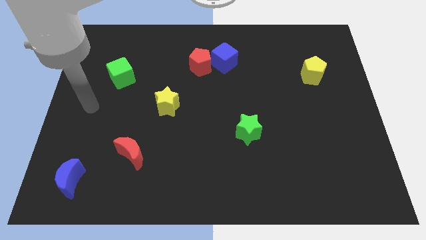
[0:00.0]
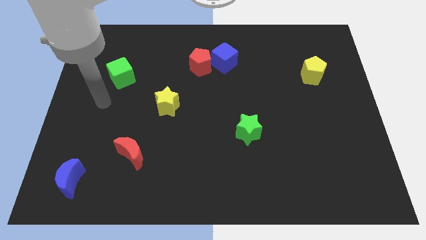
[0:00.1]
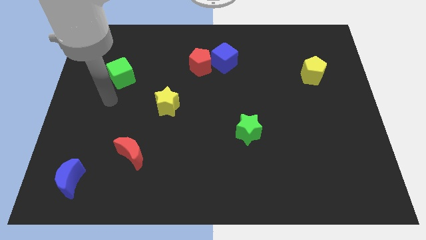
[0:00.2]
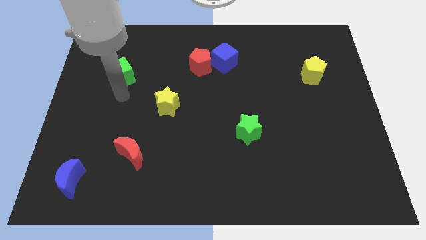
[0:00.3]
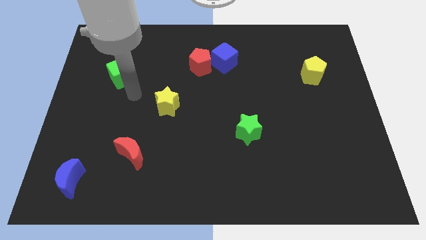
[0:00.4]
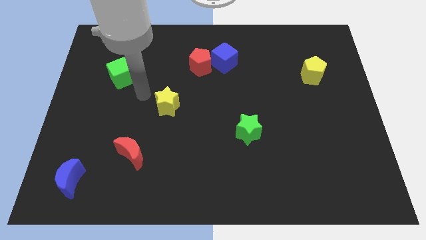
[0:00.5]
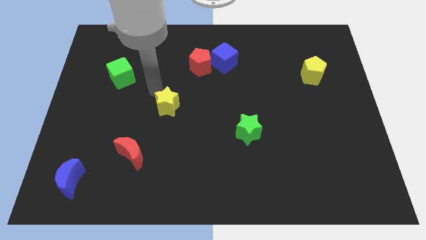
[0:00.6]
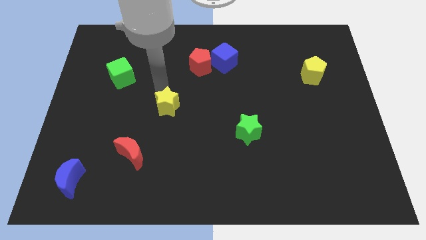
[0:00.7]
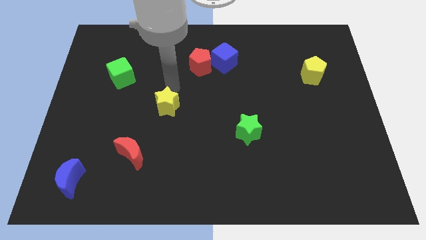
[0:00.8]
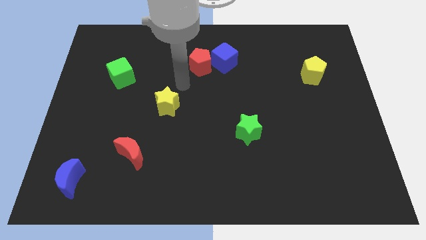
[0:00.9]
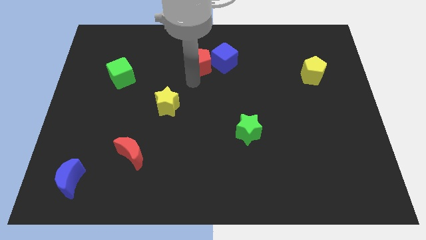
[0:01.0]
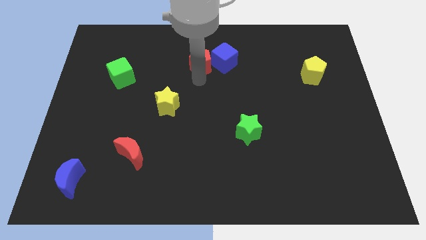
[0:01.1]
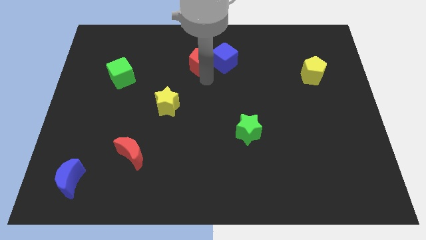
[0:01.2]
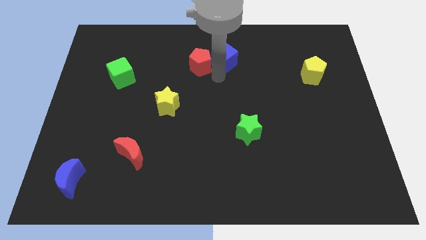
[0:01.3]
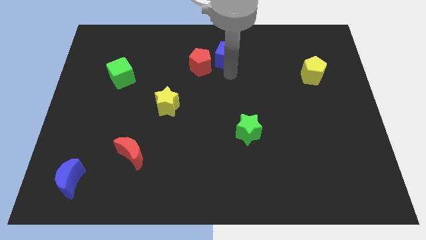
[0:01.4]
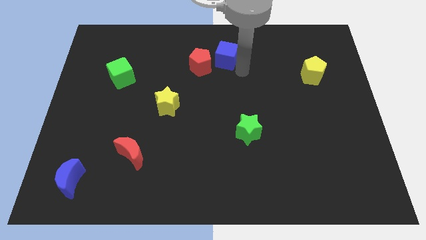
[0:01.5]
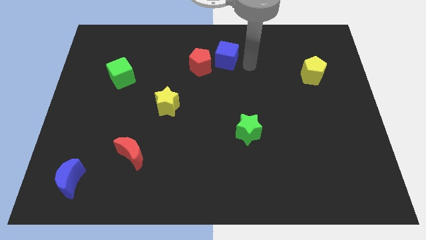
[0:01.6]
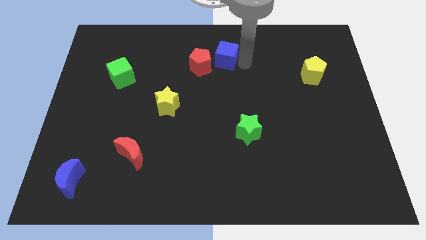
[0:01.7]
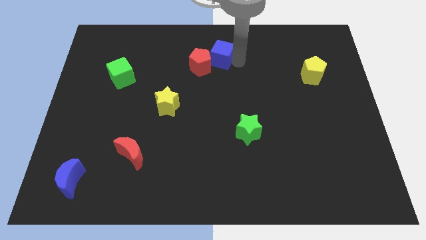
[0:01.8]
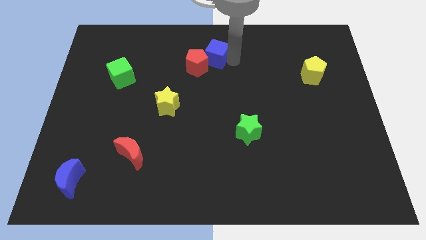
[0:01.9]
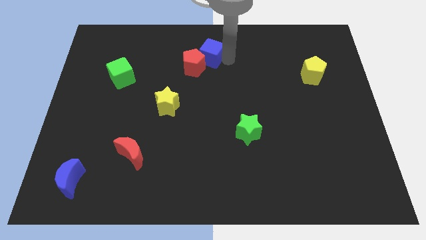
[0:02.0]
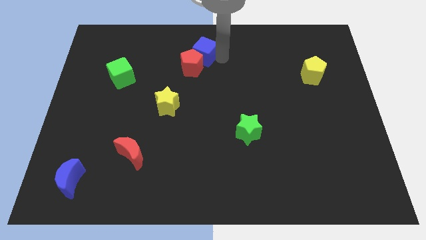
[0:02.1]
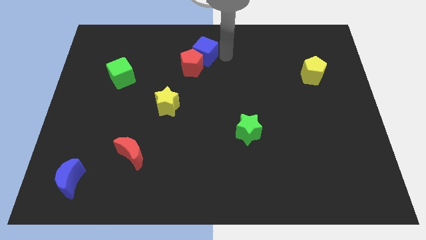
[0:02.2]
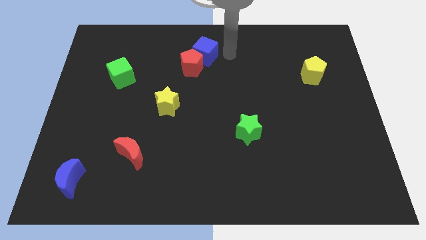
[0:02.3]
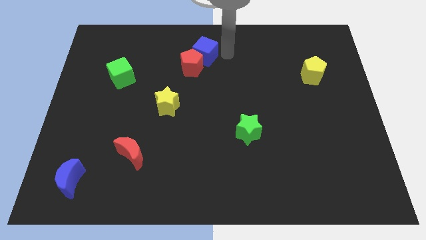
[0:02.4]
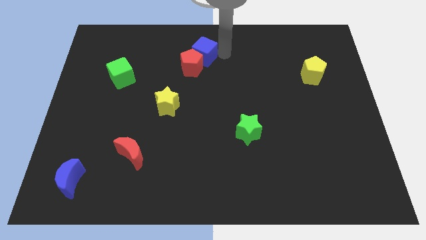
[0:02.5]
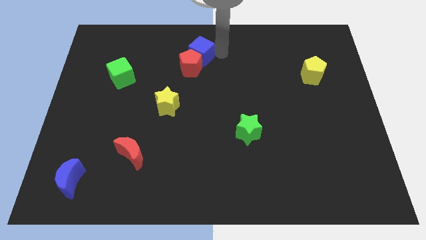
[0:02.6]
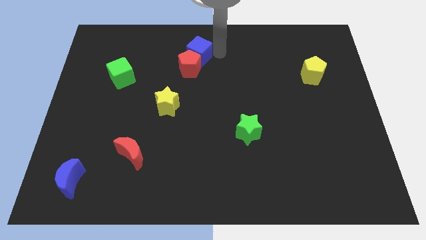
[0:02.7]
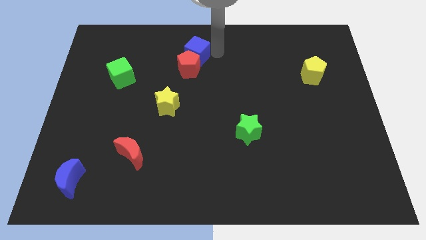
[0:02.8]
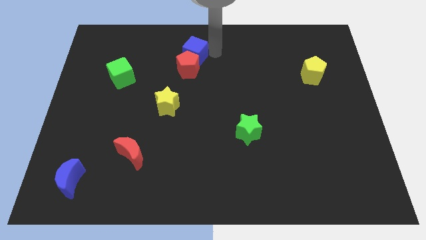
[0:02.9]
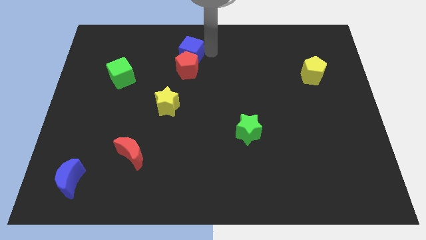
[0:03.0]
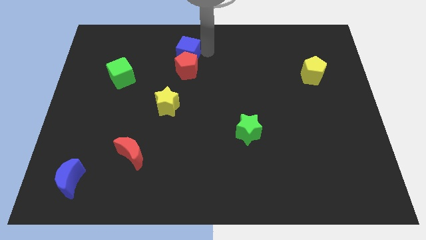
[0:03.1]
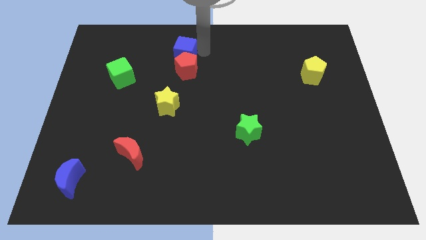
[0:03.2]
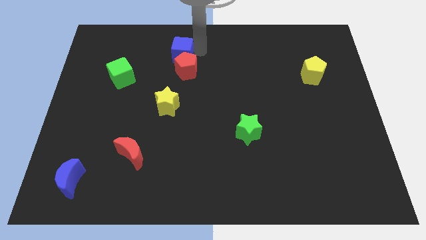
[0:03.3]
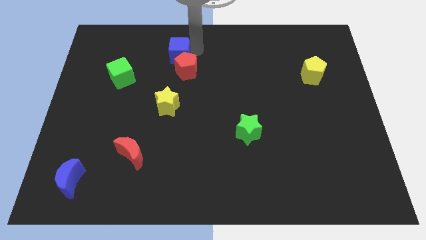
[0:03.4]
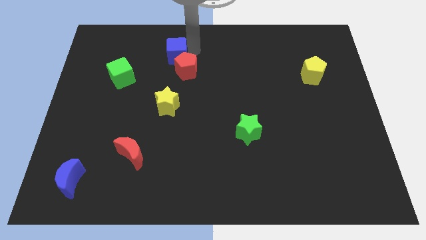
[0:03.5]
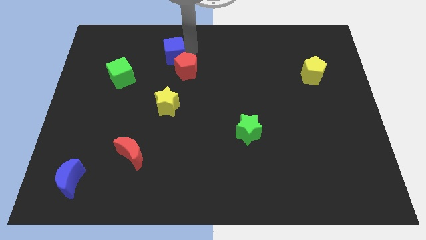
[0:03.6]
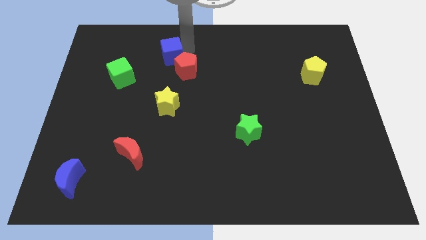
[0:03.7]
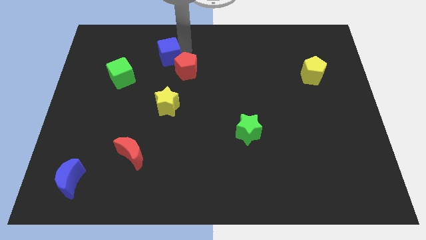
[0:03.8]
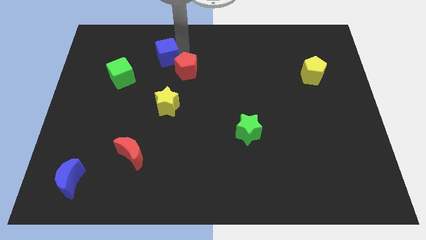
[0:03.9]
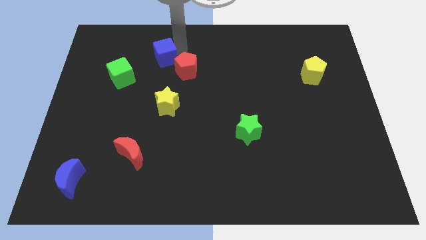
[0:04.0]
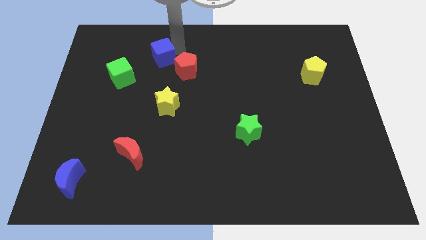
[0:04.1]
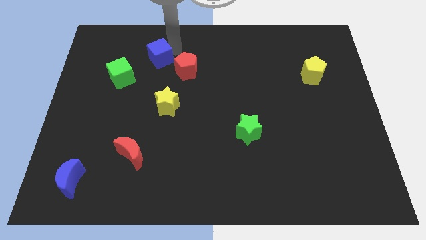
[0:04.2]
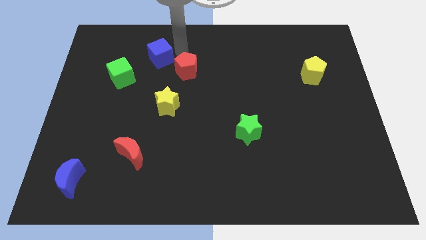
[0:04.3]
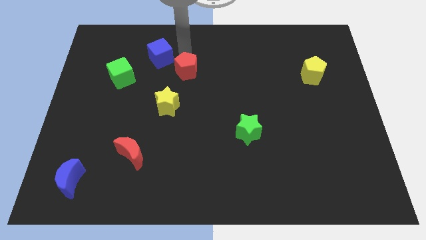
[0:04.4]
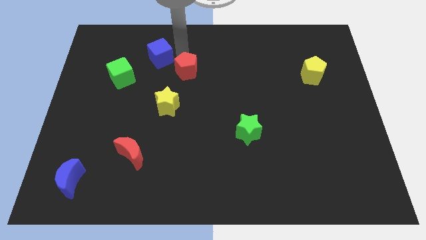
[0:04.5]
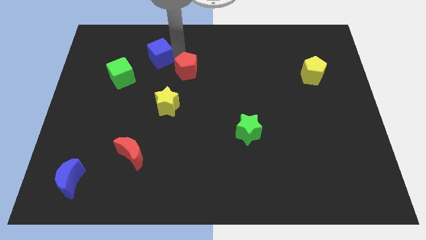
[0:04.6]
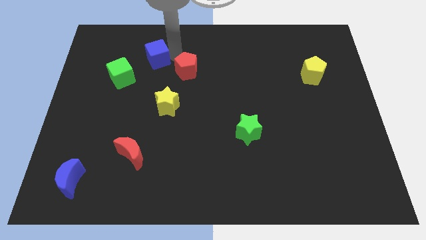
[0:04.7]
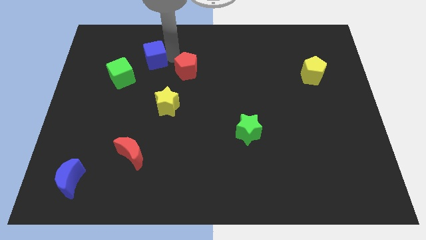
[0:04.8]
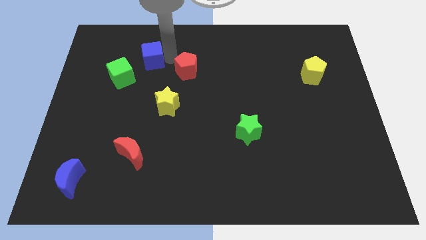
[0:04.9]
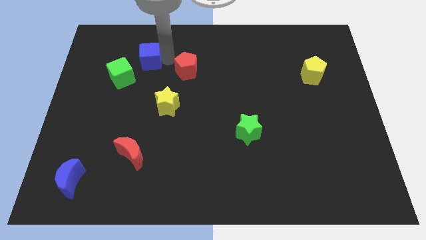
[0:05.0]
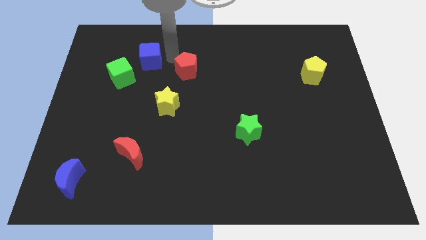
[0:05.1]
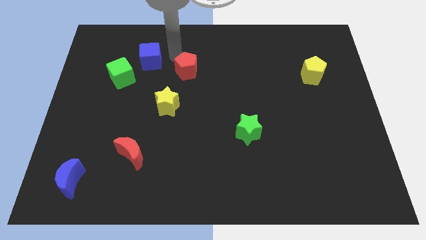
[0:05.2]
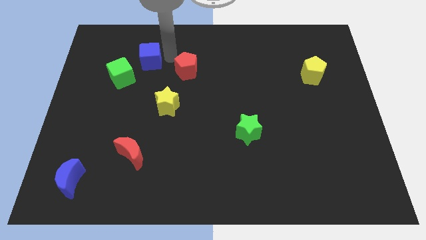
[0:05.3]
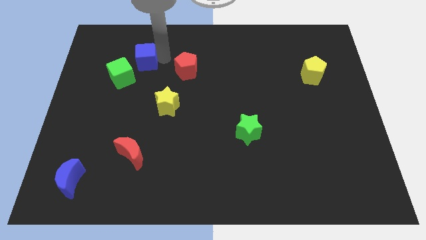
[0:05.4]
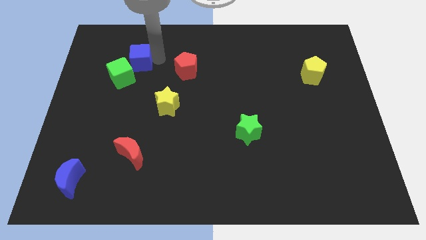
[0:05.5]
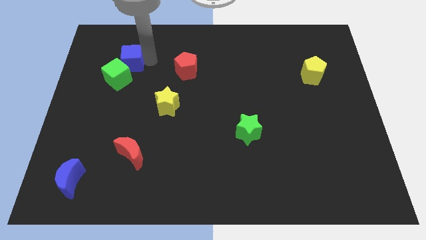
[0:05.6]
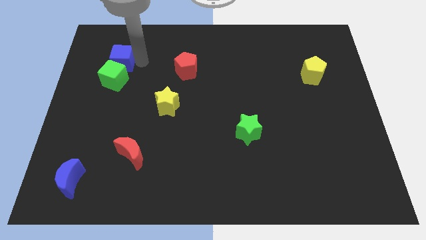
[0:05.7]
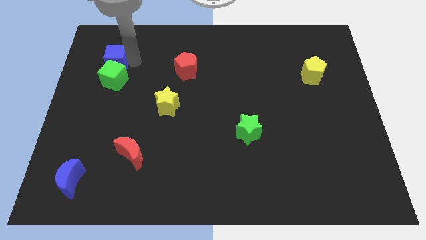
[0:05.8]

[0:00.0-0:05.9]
push the blue cube to the top left of the green cube
